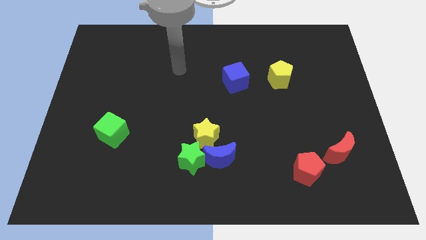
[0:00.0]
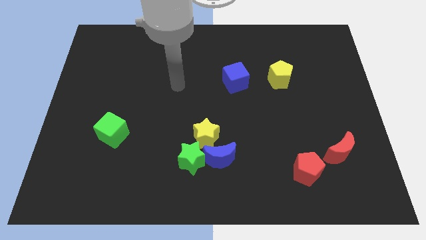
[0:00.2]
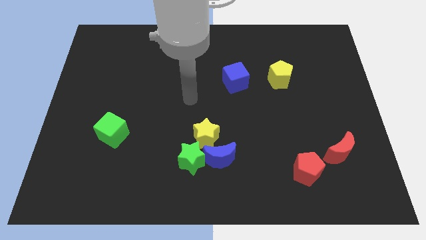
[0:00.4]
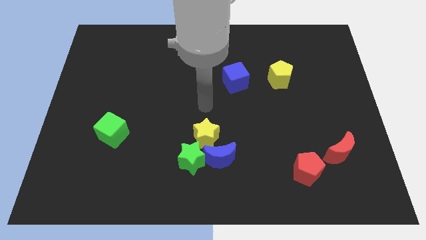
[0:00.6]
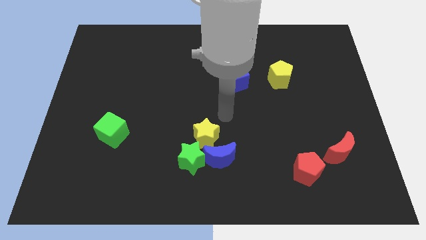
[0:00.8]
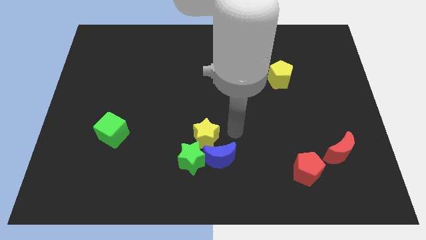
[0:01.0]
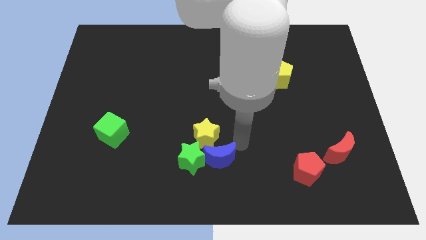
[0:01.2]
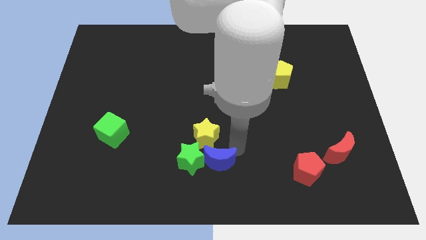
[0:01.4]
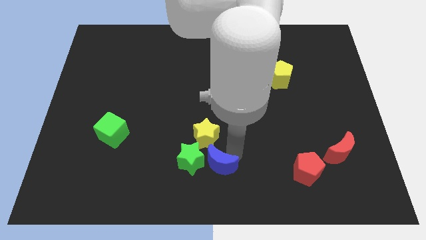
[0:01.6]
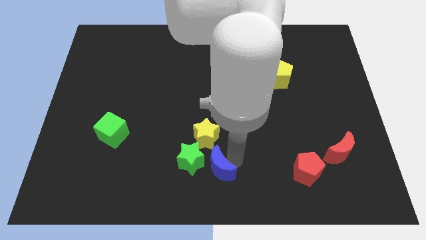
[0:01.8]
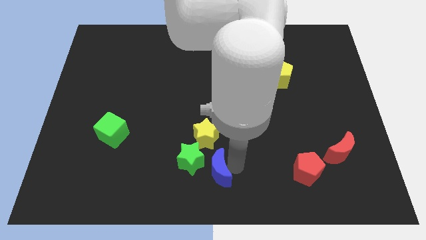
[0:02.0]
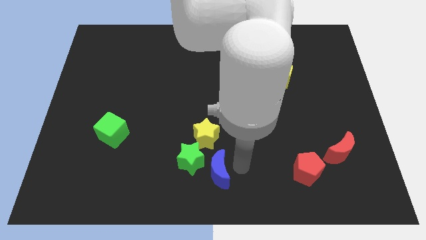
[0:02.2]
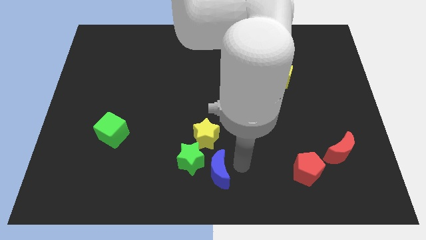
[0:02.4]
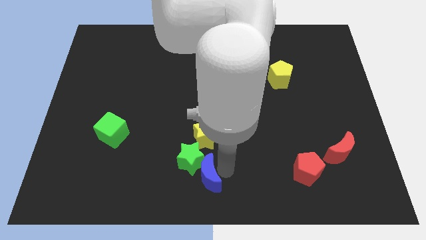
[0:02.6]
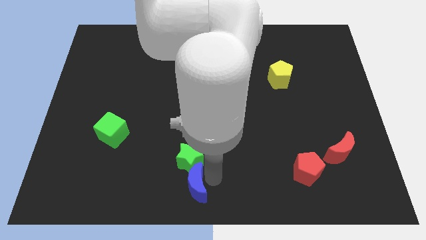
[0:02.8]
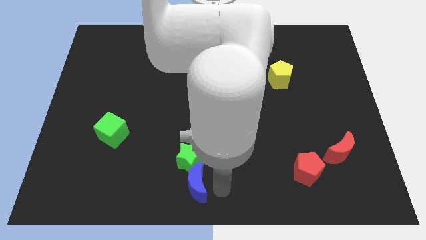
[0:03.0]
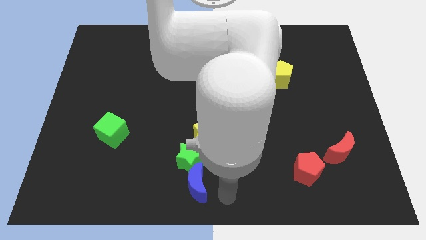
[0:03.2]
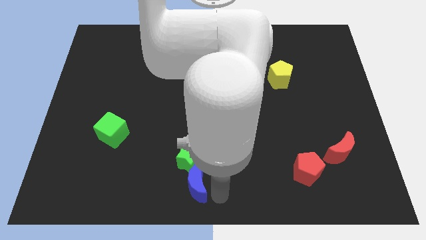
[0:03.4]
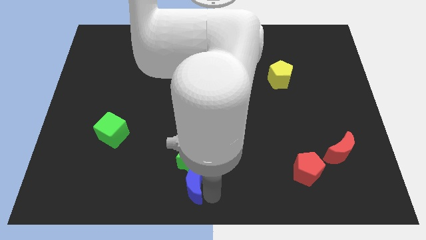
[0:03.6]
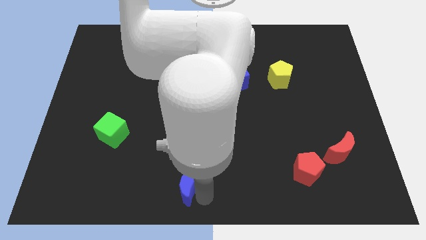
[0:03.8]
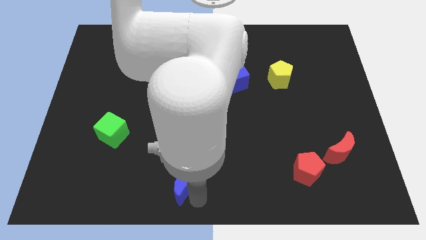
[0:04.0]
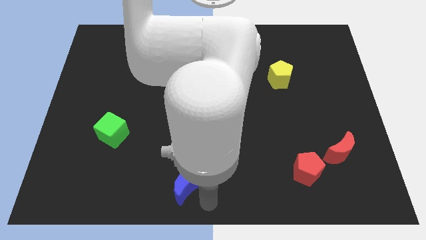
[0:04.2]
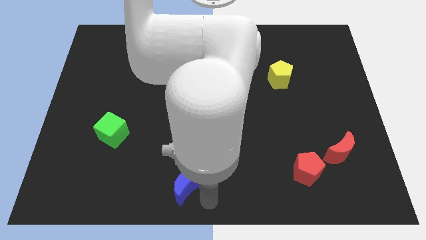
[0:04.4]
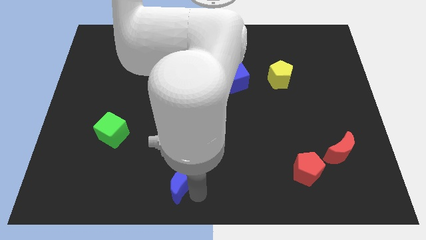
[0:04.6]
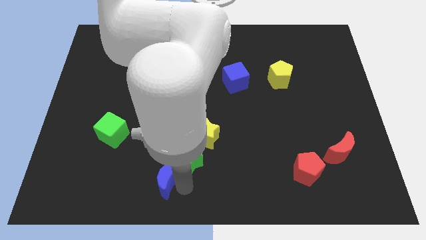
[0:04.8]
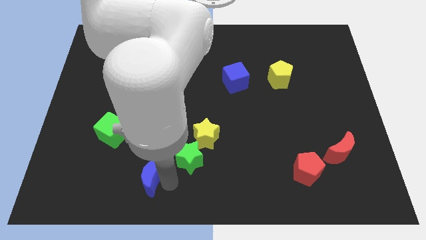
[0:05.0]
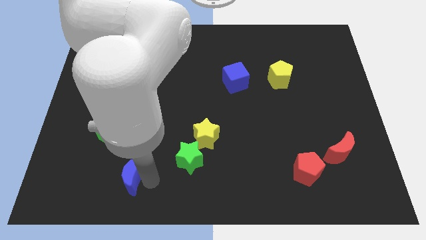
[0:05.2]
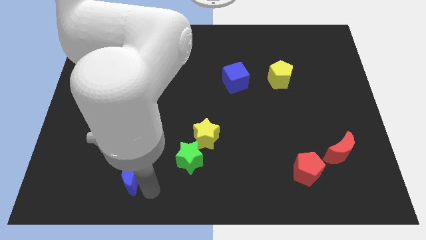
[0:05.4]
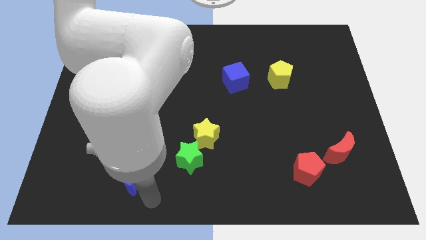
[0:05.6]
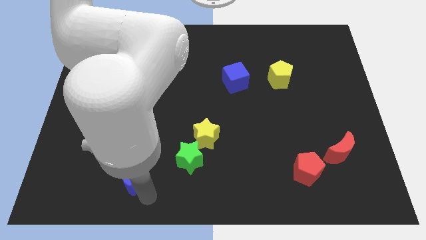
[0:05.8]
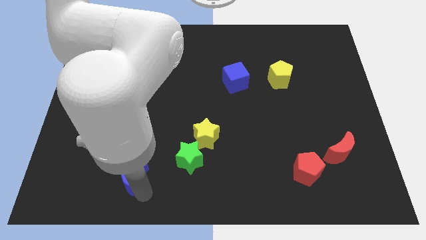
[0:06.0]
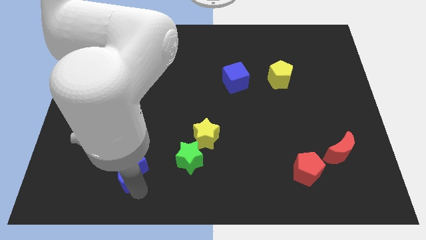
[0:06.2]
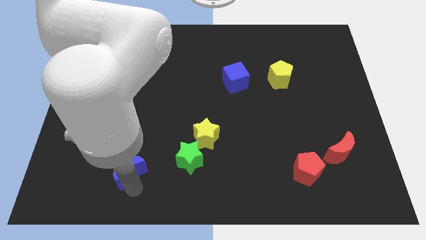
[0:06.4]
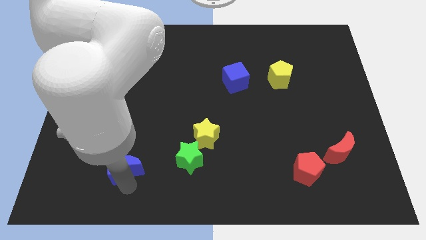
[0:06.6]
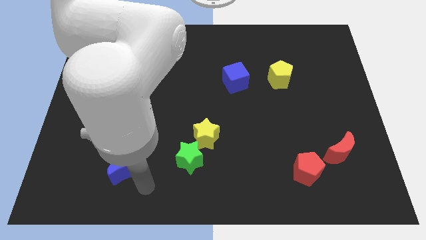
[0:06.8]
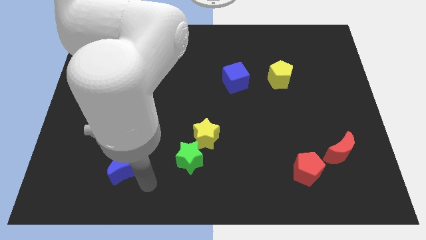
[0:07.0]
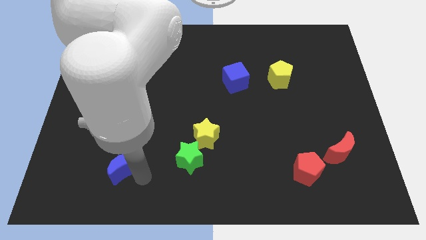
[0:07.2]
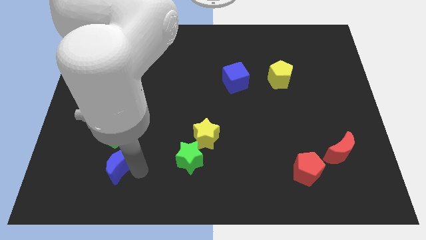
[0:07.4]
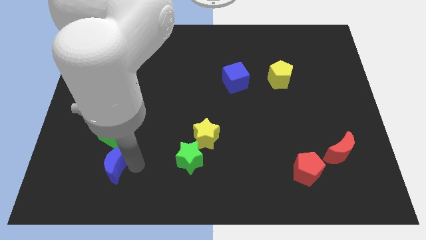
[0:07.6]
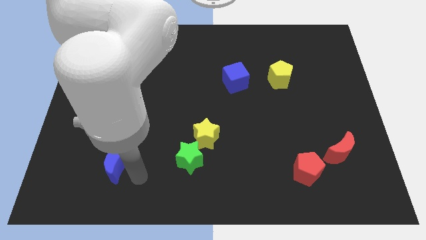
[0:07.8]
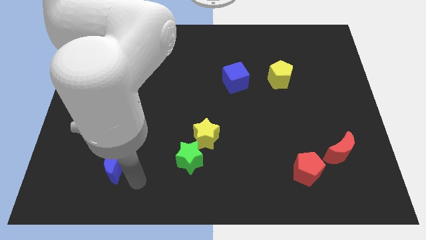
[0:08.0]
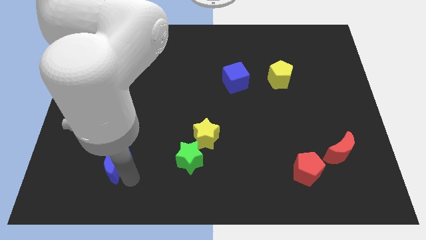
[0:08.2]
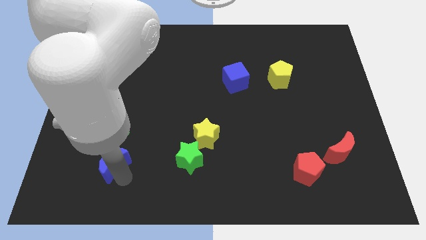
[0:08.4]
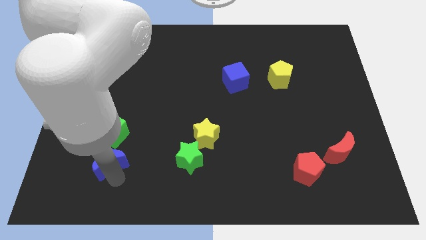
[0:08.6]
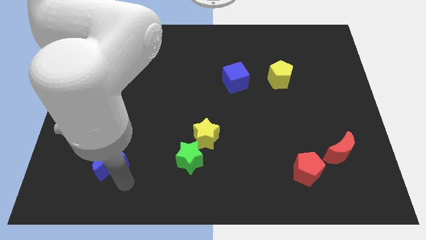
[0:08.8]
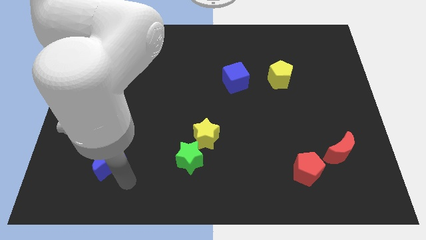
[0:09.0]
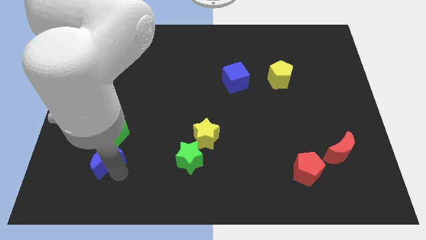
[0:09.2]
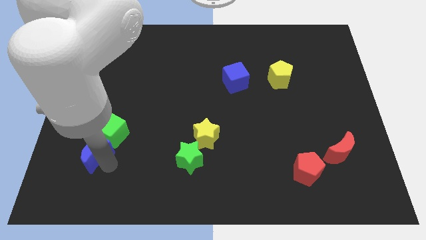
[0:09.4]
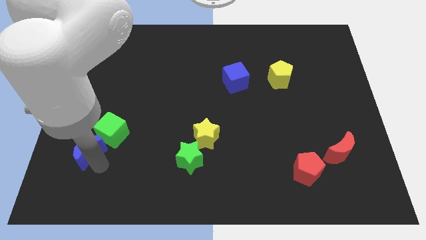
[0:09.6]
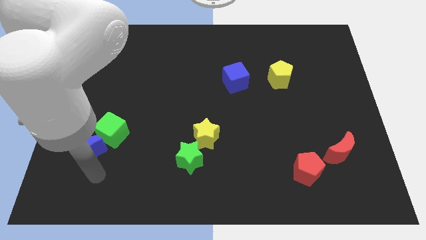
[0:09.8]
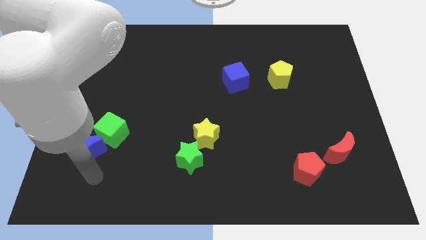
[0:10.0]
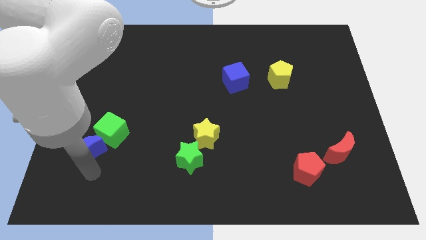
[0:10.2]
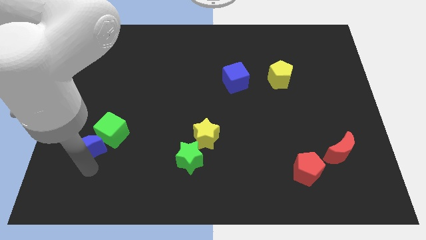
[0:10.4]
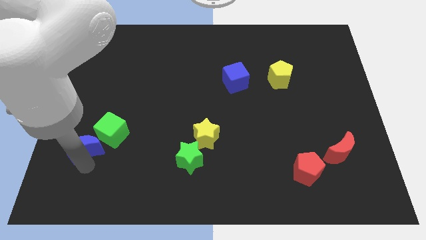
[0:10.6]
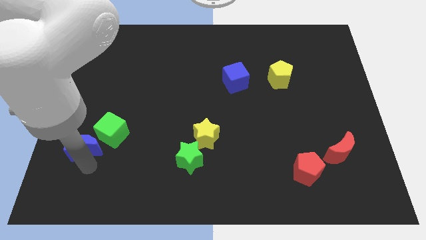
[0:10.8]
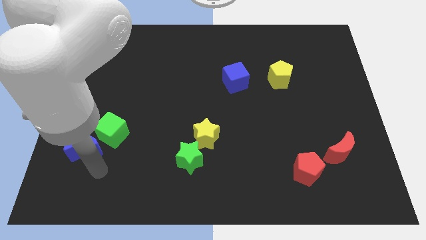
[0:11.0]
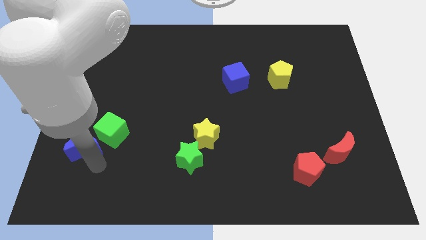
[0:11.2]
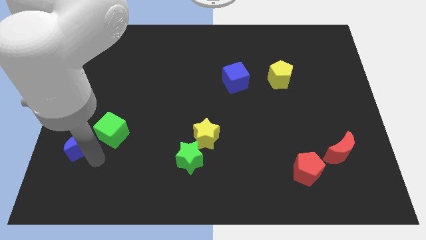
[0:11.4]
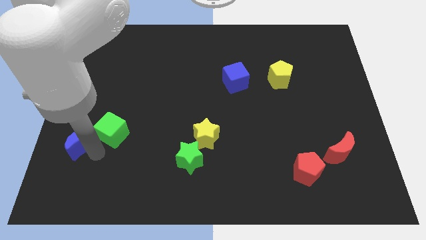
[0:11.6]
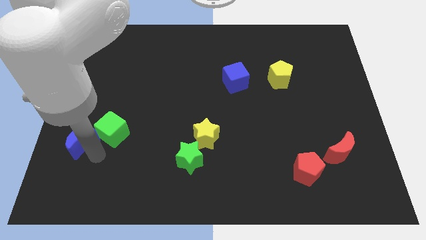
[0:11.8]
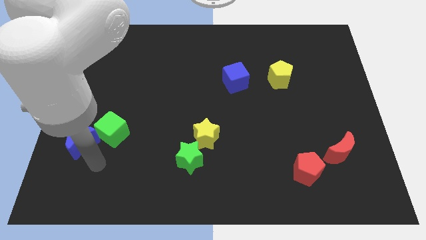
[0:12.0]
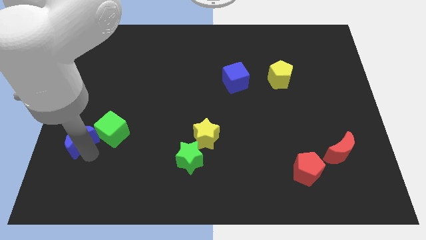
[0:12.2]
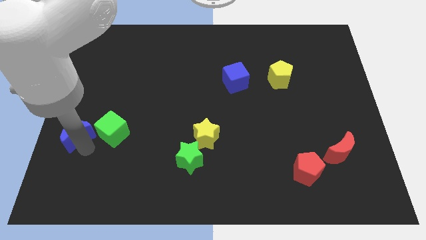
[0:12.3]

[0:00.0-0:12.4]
move the blue moon to the center left

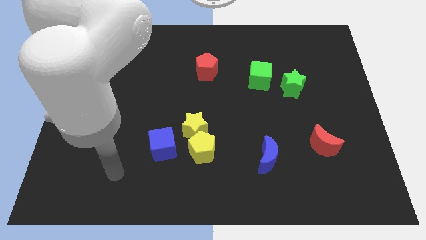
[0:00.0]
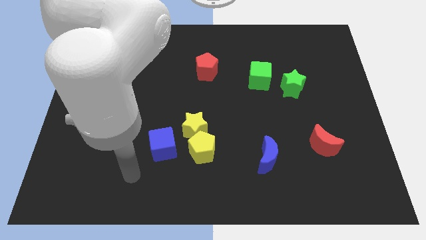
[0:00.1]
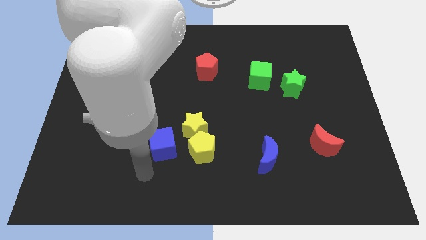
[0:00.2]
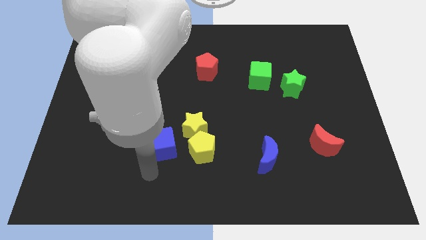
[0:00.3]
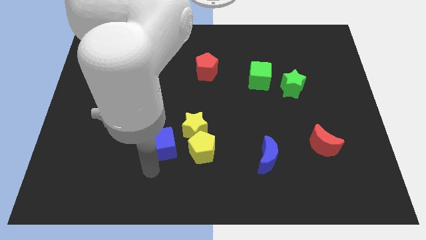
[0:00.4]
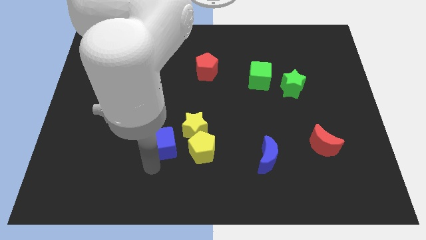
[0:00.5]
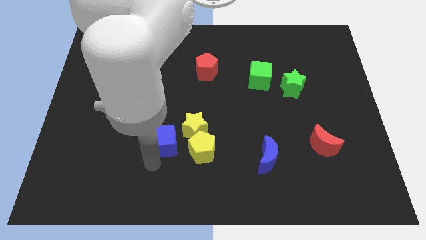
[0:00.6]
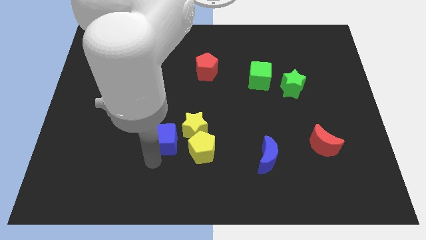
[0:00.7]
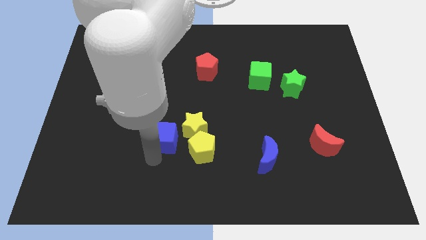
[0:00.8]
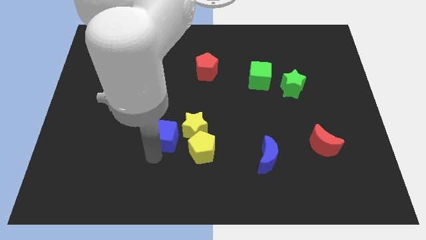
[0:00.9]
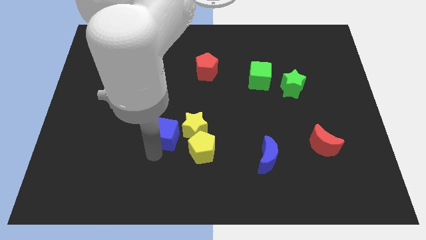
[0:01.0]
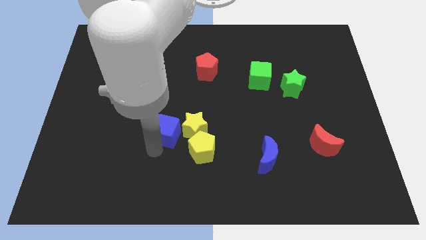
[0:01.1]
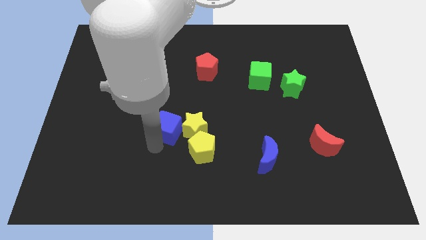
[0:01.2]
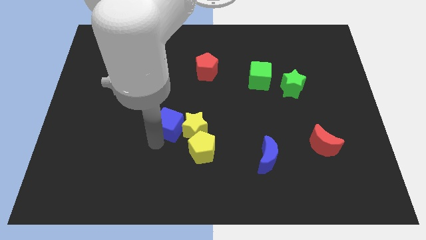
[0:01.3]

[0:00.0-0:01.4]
put the blue cube to the center
